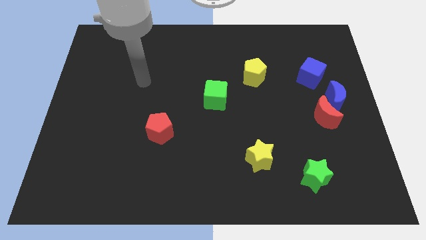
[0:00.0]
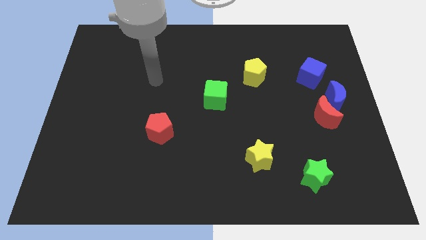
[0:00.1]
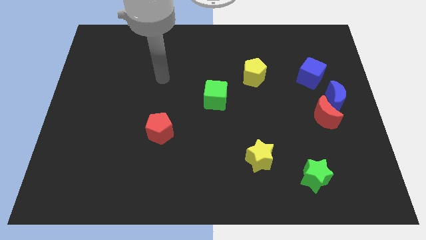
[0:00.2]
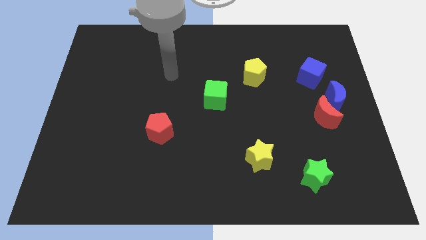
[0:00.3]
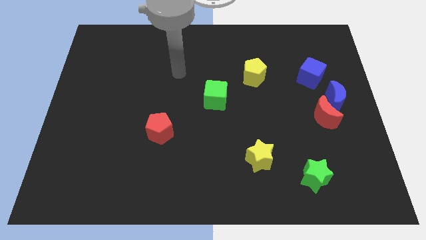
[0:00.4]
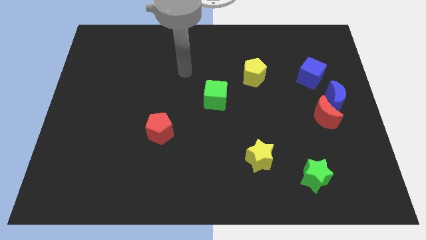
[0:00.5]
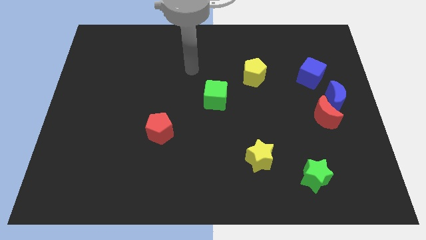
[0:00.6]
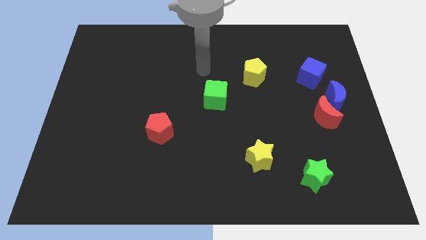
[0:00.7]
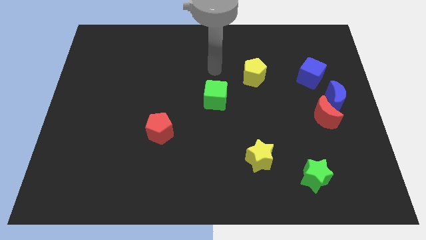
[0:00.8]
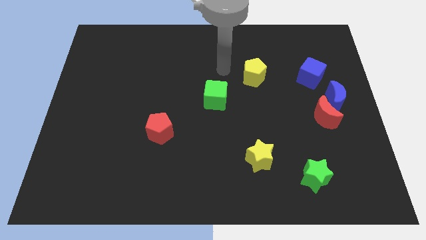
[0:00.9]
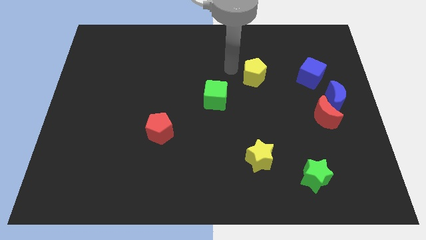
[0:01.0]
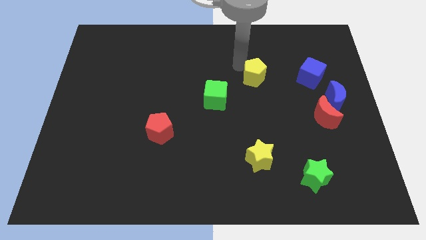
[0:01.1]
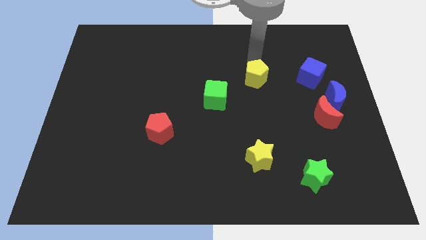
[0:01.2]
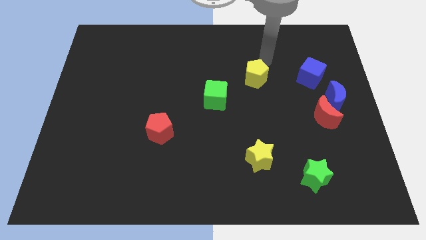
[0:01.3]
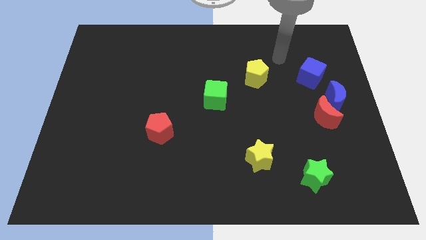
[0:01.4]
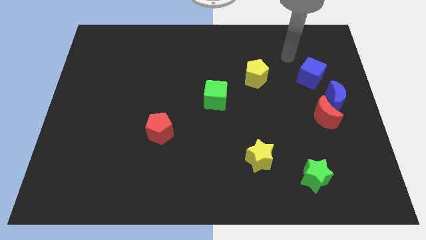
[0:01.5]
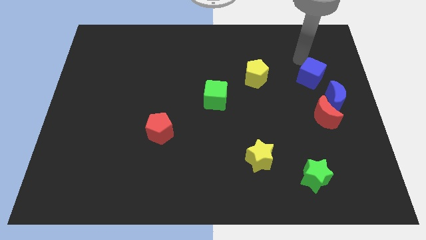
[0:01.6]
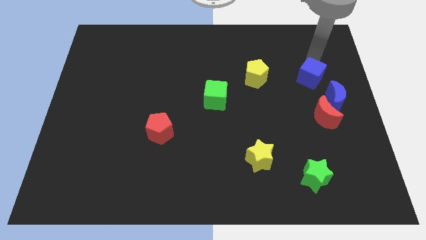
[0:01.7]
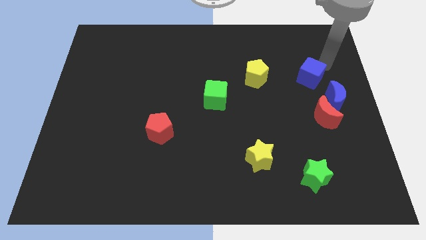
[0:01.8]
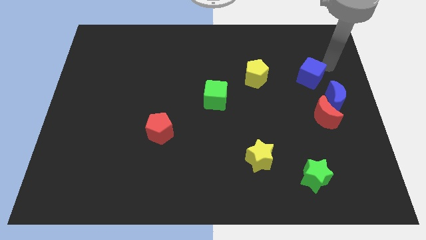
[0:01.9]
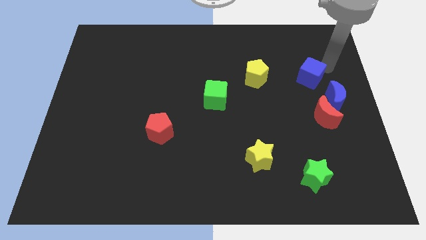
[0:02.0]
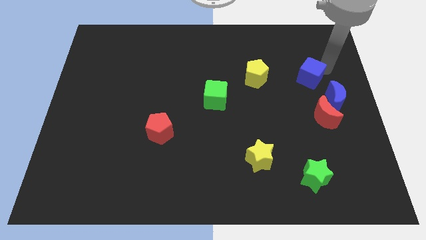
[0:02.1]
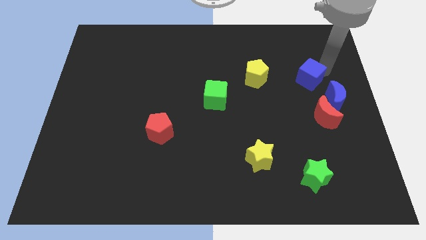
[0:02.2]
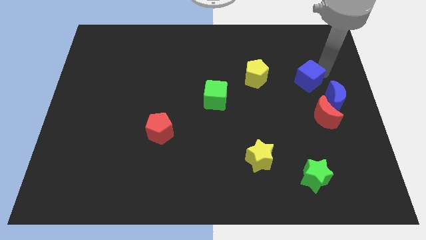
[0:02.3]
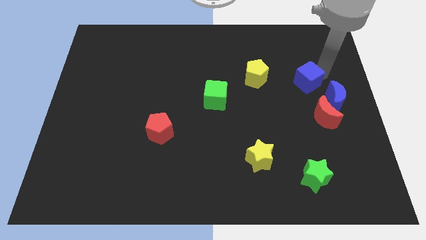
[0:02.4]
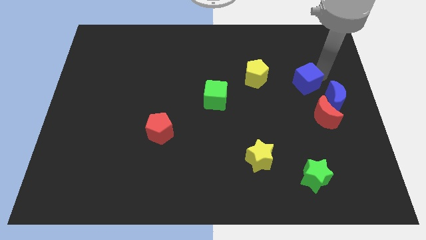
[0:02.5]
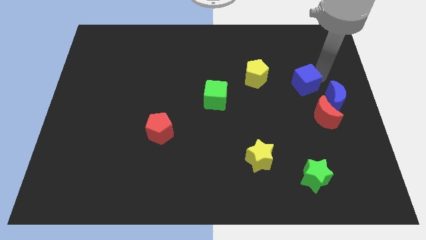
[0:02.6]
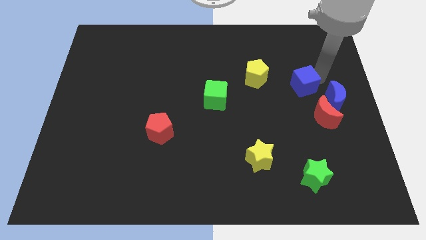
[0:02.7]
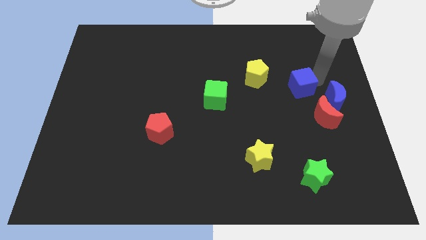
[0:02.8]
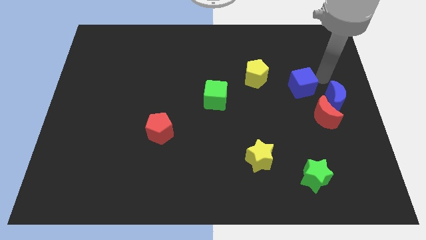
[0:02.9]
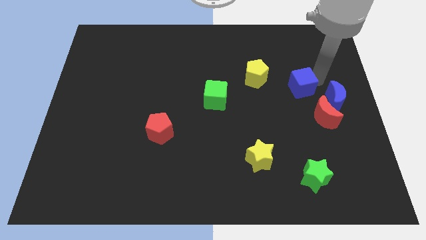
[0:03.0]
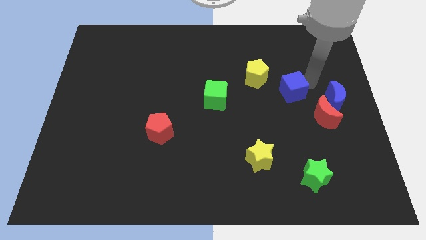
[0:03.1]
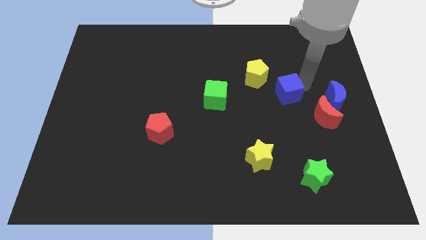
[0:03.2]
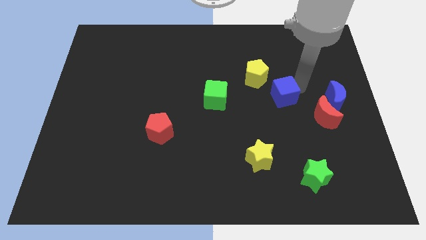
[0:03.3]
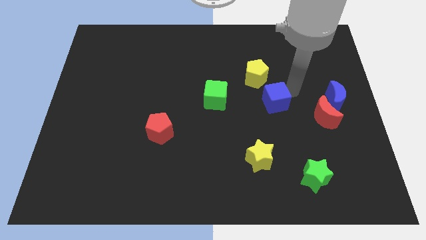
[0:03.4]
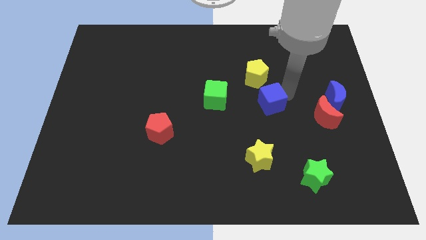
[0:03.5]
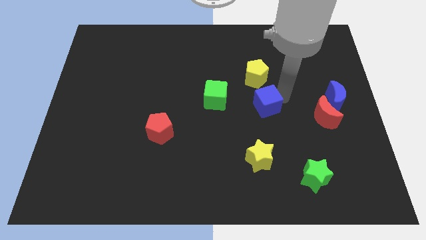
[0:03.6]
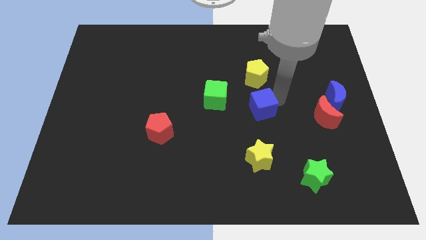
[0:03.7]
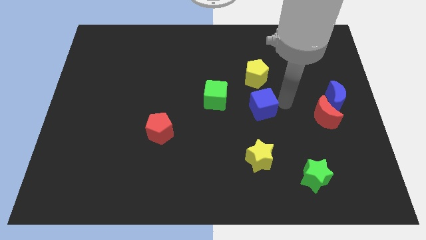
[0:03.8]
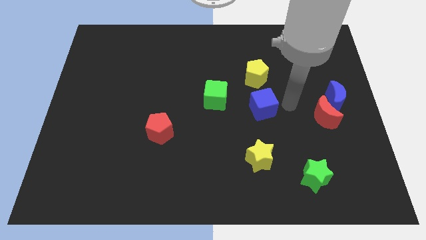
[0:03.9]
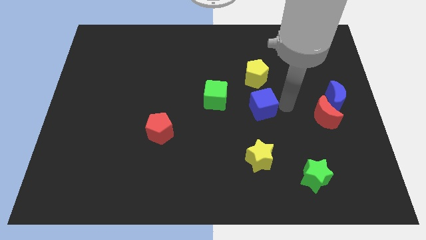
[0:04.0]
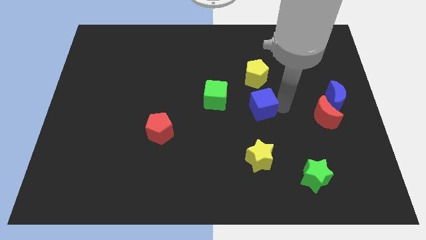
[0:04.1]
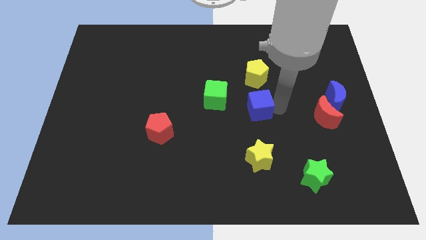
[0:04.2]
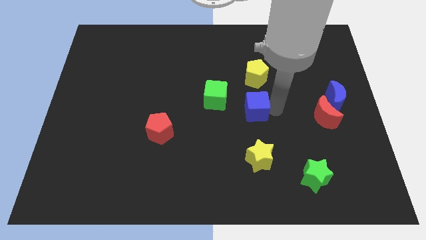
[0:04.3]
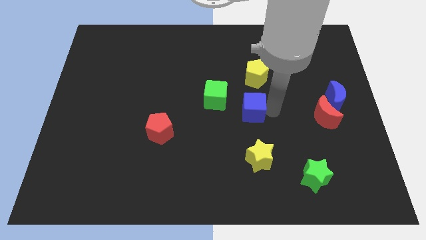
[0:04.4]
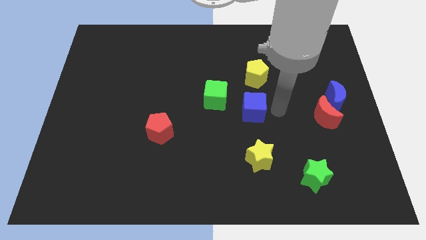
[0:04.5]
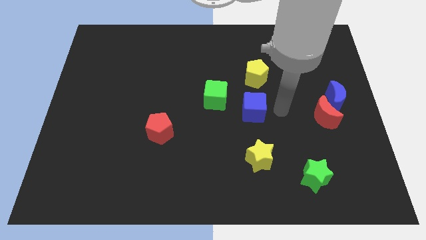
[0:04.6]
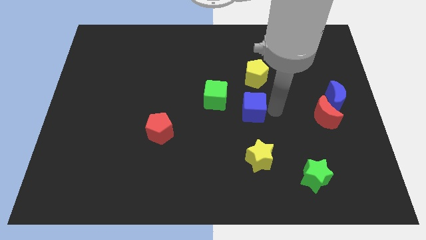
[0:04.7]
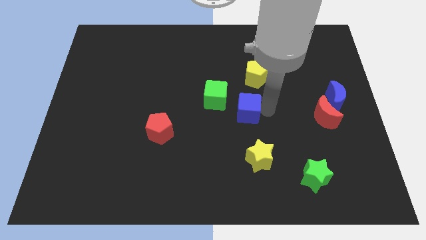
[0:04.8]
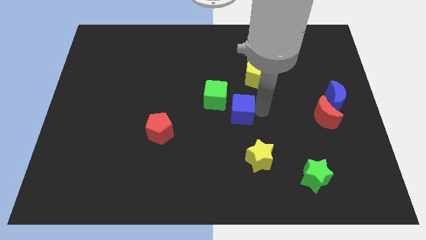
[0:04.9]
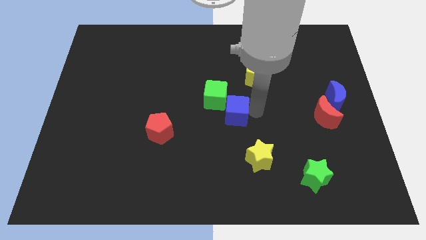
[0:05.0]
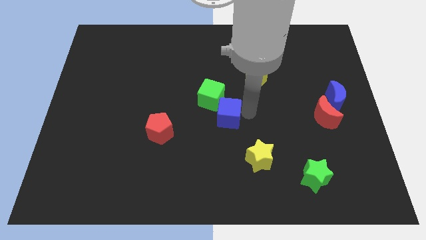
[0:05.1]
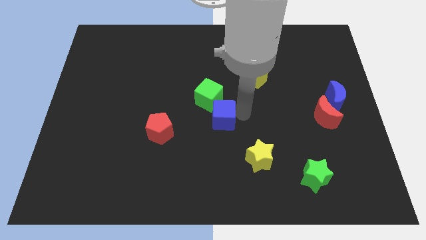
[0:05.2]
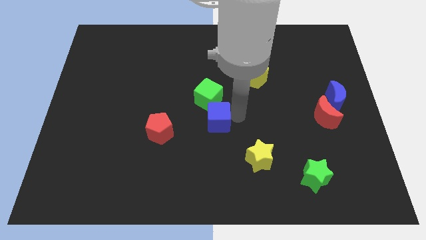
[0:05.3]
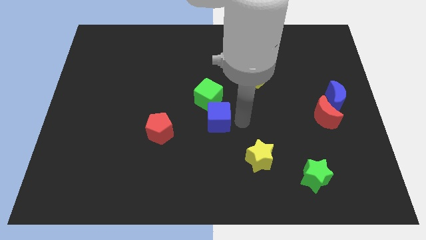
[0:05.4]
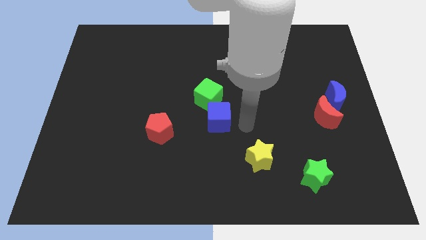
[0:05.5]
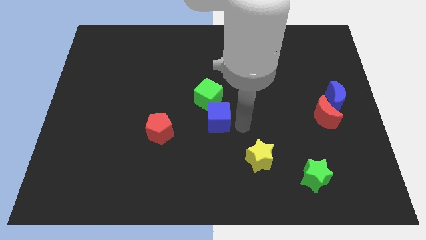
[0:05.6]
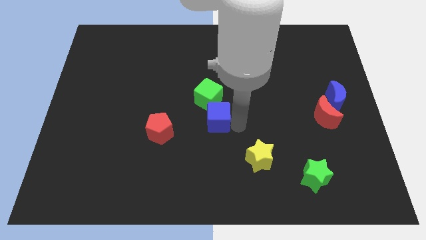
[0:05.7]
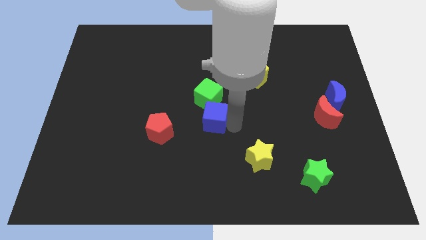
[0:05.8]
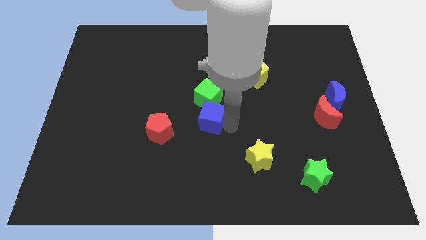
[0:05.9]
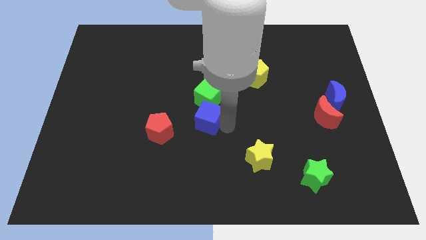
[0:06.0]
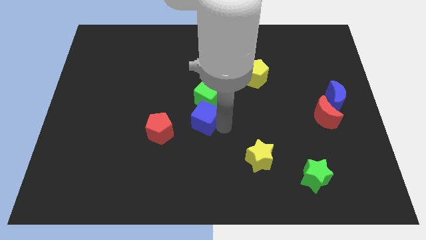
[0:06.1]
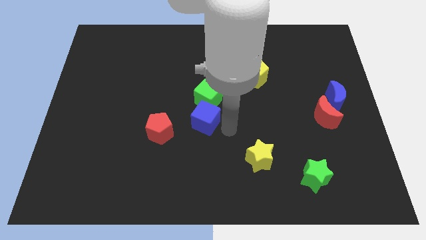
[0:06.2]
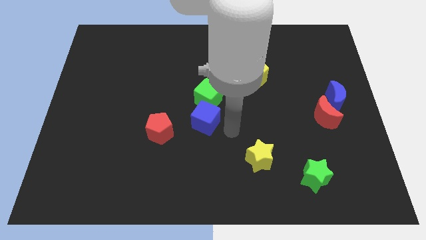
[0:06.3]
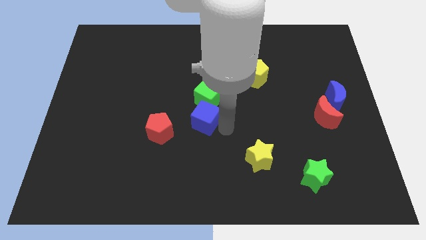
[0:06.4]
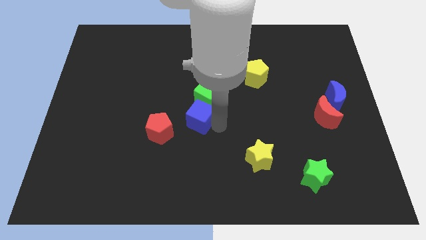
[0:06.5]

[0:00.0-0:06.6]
move the blue cube to the top right of the red pentagon
